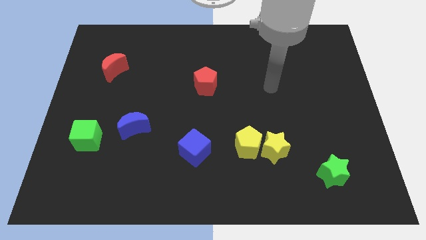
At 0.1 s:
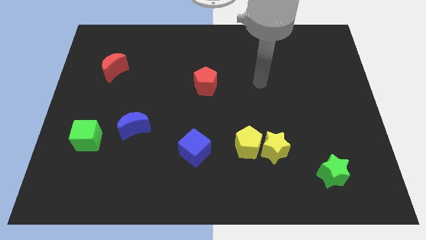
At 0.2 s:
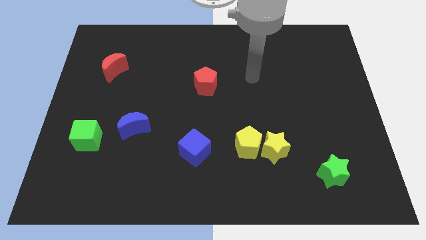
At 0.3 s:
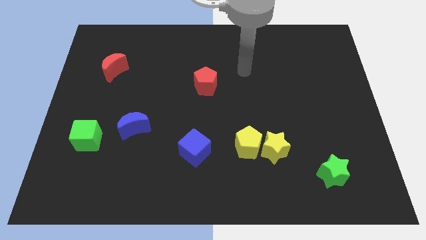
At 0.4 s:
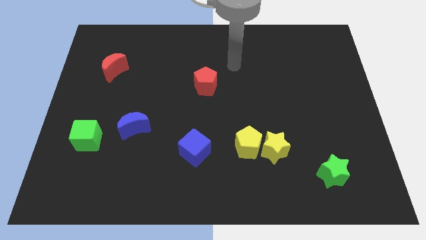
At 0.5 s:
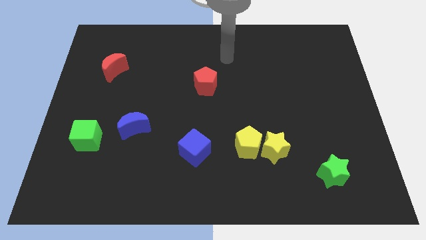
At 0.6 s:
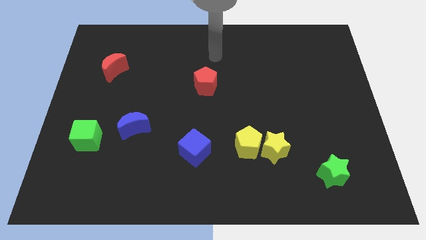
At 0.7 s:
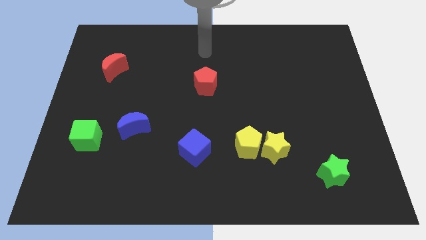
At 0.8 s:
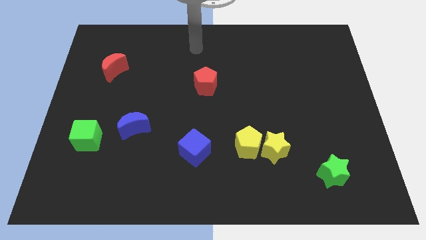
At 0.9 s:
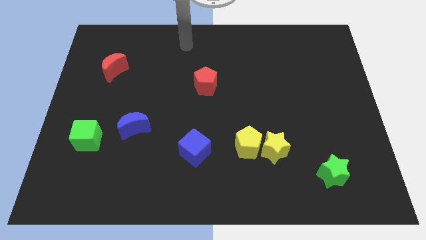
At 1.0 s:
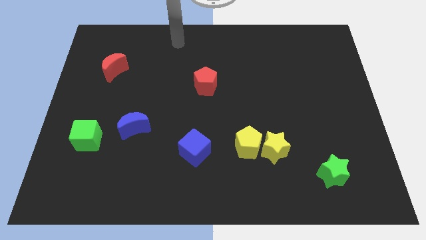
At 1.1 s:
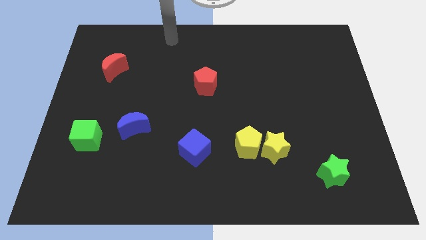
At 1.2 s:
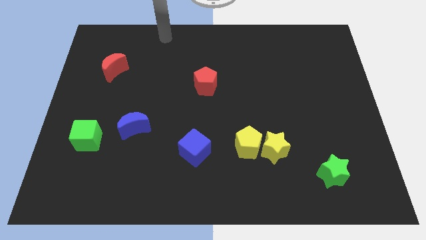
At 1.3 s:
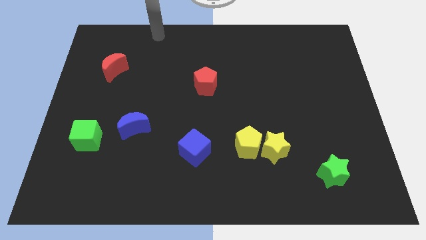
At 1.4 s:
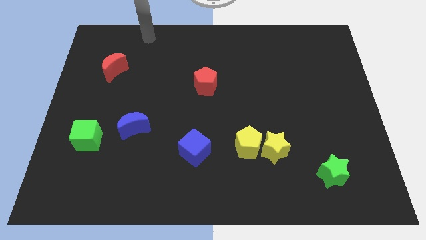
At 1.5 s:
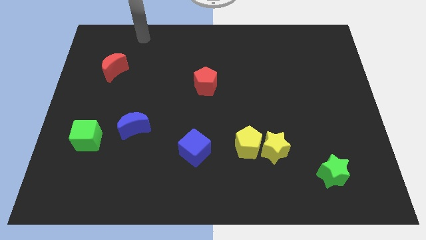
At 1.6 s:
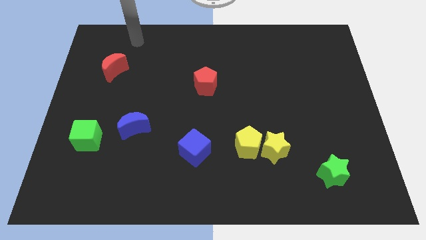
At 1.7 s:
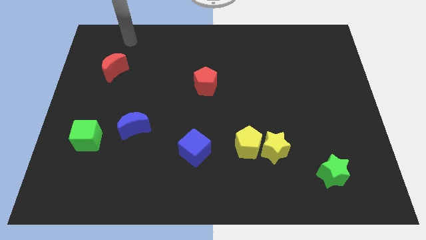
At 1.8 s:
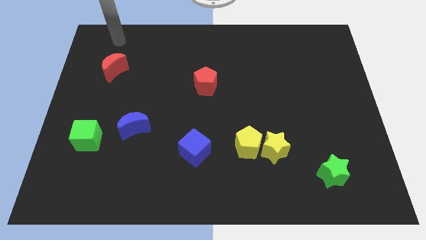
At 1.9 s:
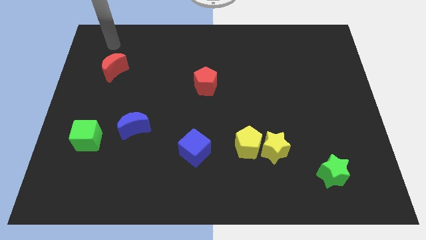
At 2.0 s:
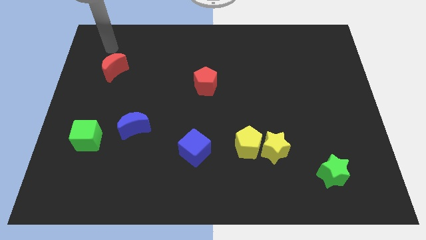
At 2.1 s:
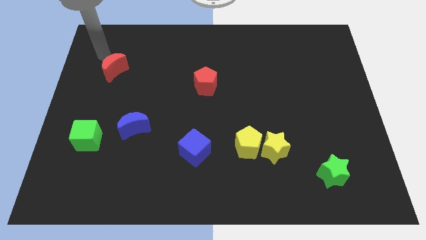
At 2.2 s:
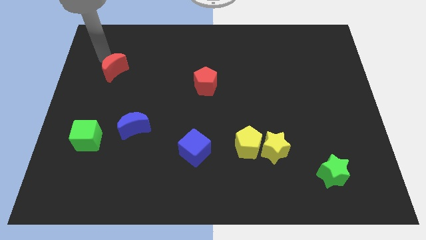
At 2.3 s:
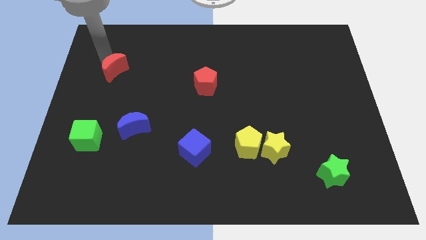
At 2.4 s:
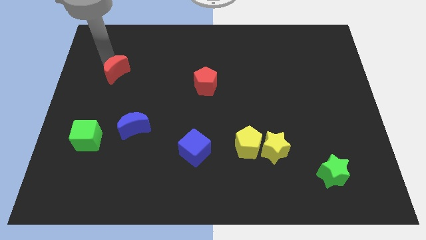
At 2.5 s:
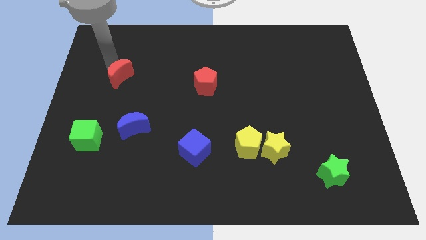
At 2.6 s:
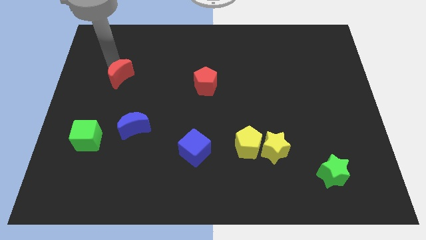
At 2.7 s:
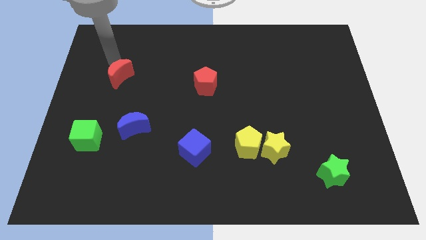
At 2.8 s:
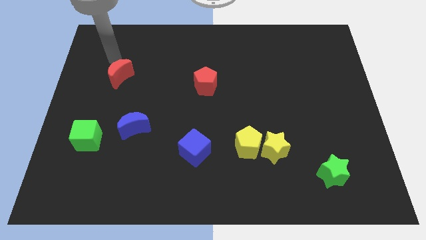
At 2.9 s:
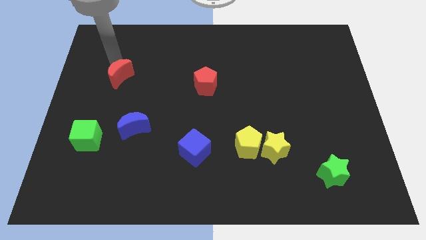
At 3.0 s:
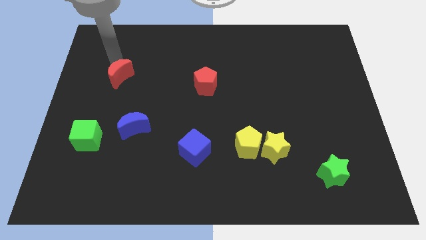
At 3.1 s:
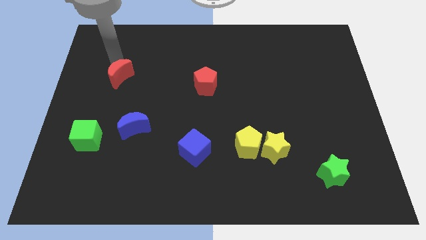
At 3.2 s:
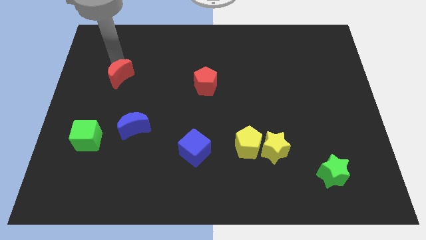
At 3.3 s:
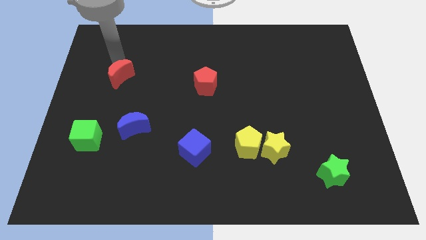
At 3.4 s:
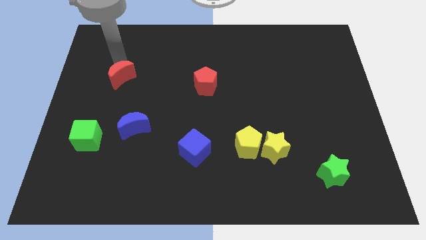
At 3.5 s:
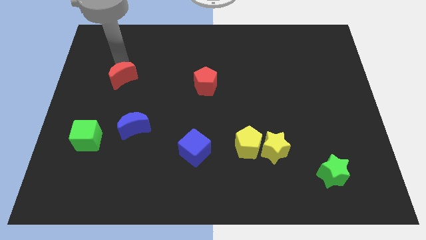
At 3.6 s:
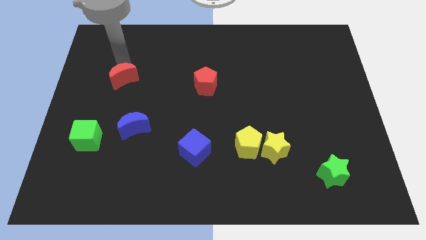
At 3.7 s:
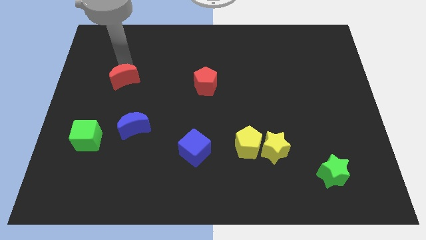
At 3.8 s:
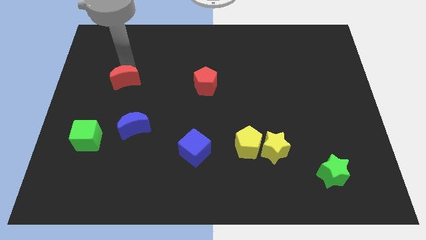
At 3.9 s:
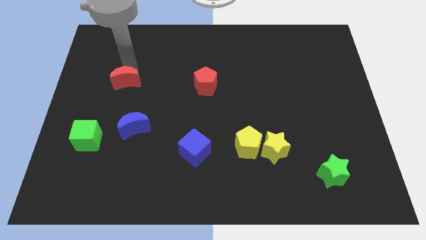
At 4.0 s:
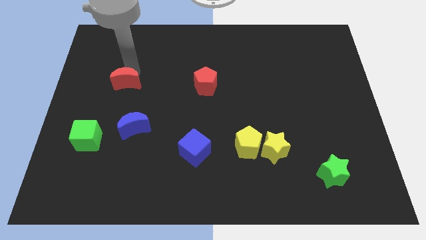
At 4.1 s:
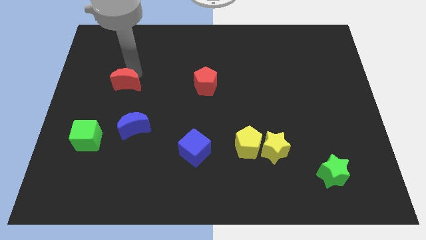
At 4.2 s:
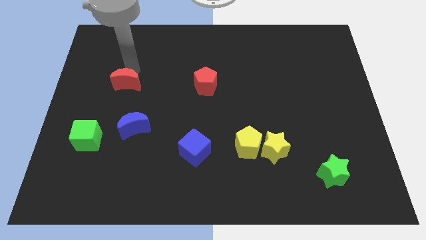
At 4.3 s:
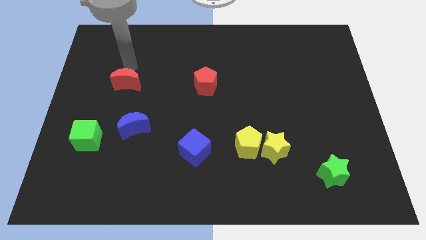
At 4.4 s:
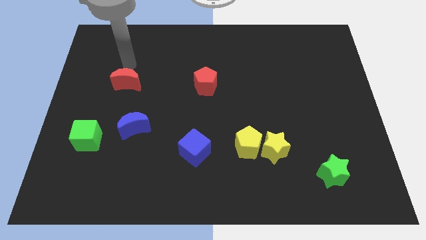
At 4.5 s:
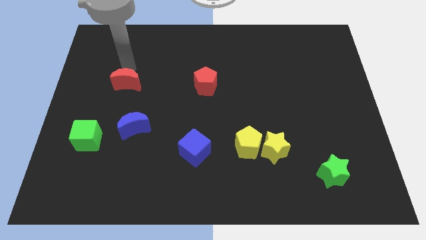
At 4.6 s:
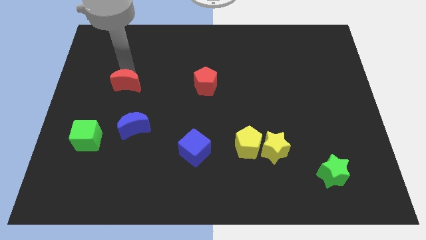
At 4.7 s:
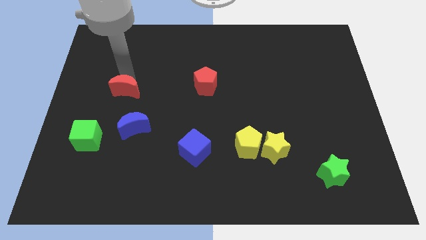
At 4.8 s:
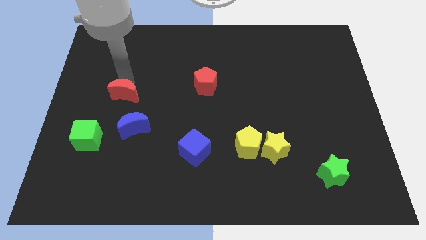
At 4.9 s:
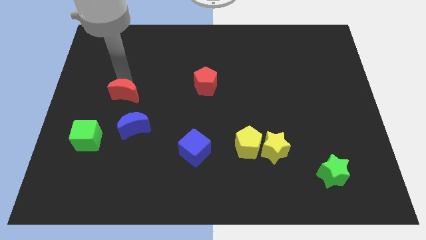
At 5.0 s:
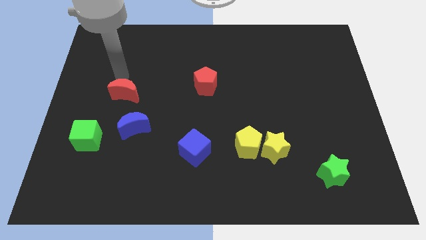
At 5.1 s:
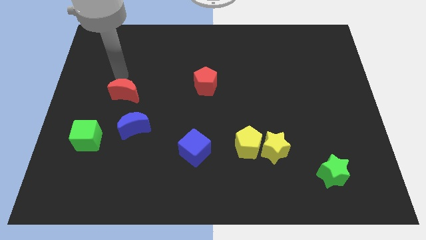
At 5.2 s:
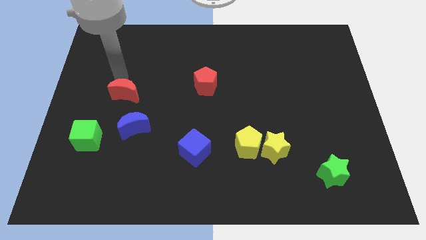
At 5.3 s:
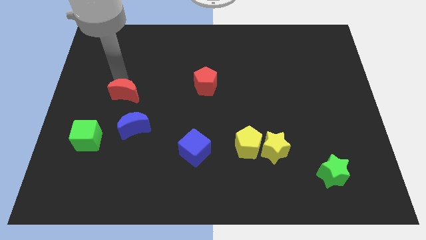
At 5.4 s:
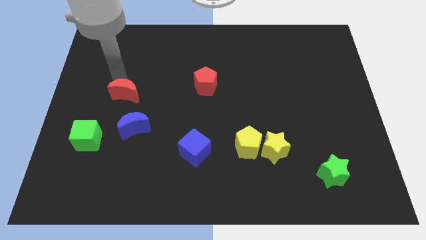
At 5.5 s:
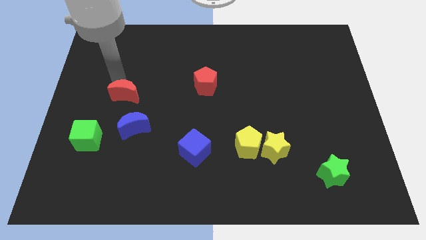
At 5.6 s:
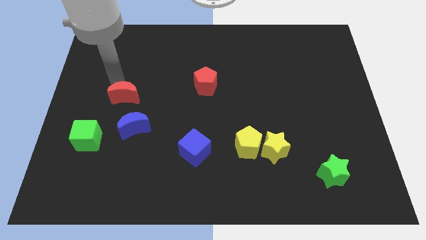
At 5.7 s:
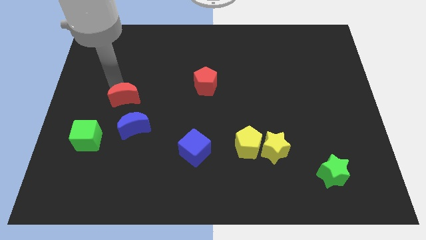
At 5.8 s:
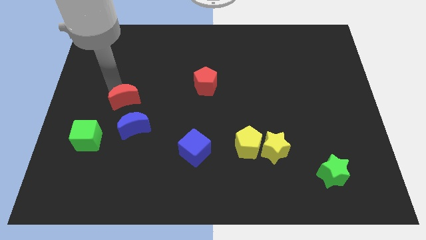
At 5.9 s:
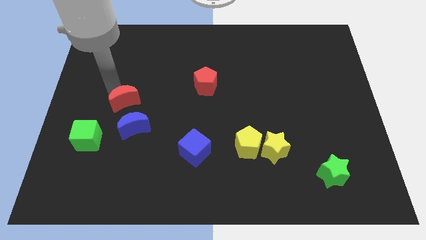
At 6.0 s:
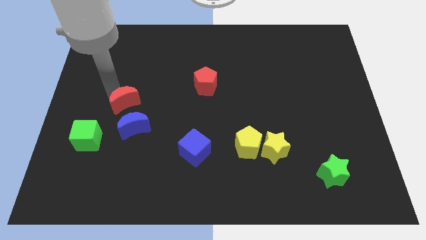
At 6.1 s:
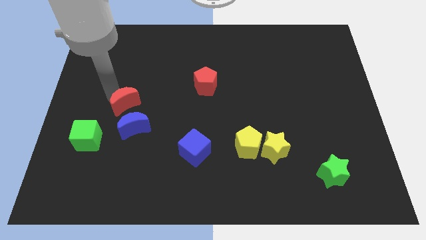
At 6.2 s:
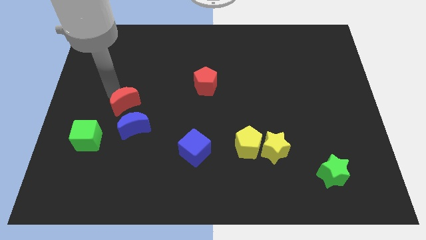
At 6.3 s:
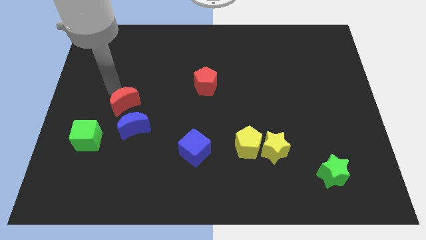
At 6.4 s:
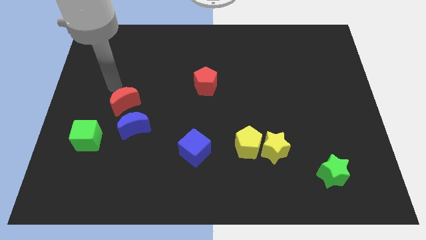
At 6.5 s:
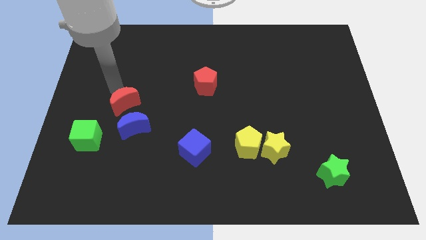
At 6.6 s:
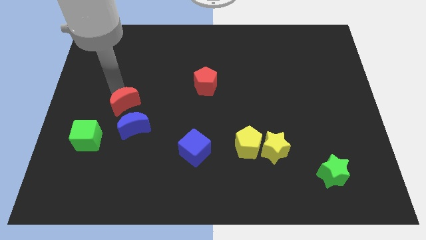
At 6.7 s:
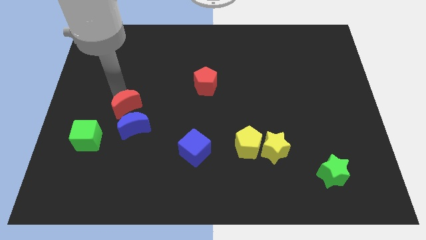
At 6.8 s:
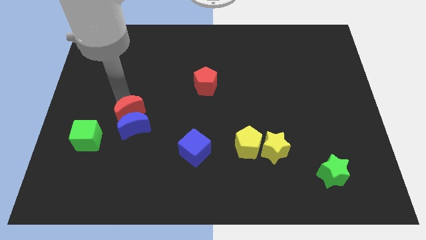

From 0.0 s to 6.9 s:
slide the red moon close to the blue moon
